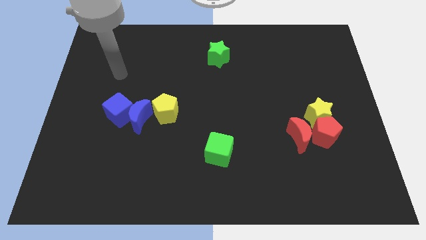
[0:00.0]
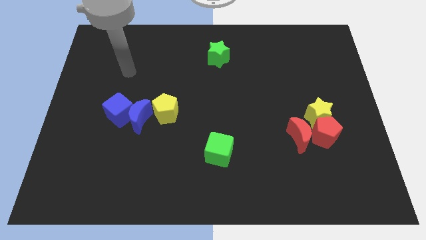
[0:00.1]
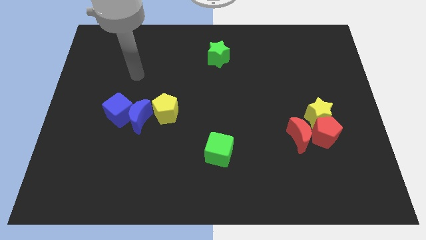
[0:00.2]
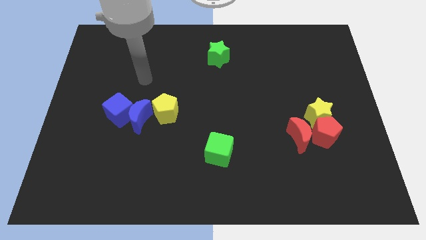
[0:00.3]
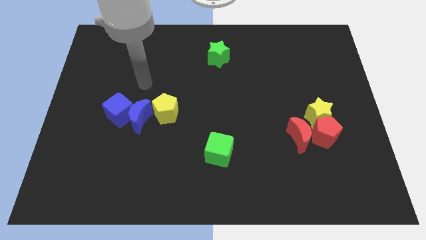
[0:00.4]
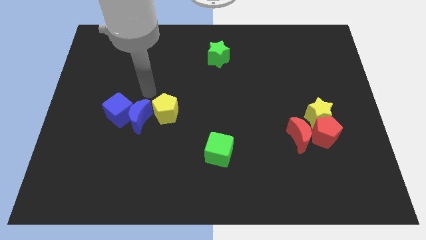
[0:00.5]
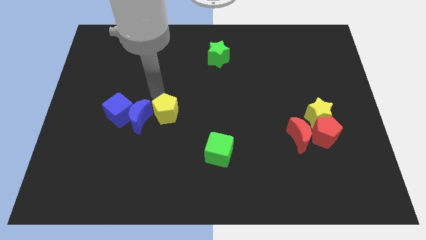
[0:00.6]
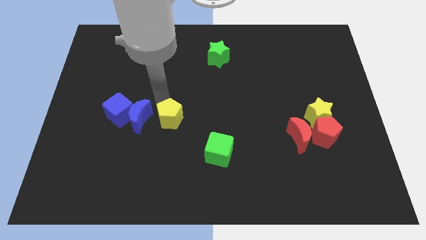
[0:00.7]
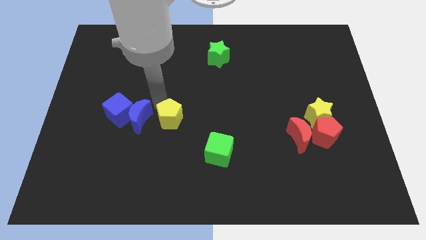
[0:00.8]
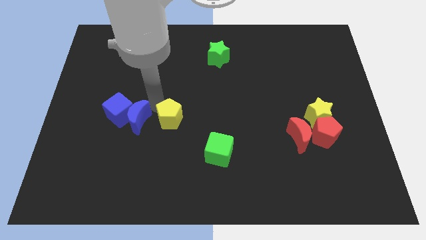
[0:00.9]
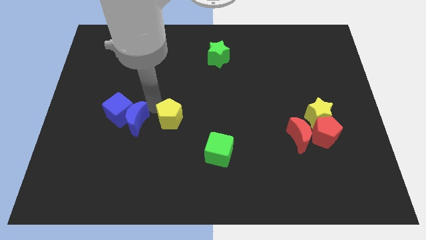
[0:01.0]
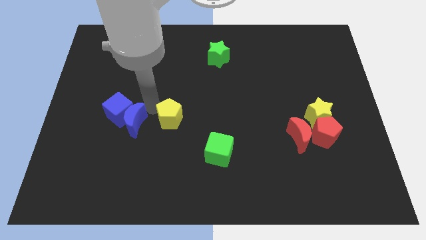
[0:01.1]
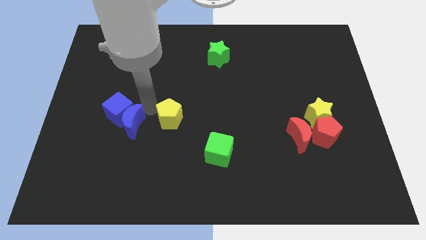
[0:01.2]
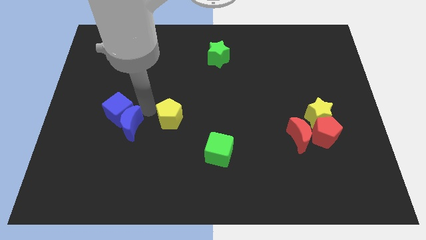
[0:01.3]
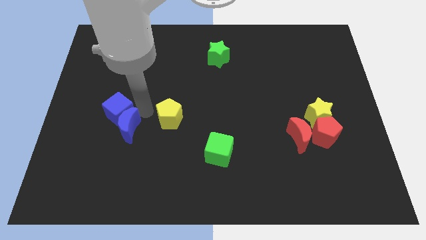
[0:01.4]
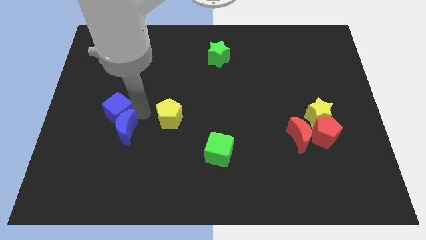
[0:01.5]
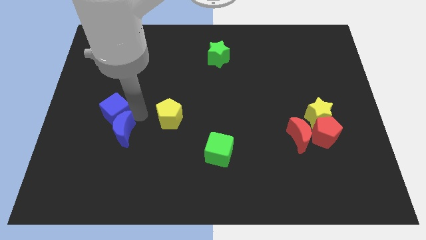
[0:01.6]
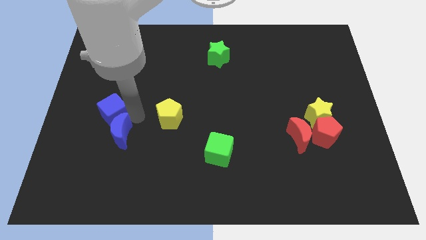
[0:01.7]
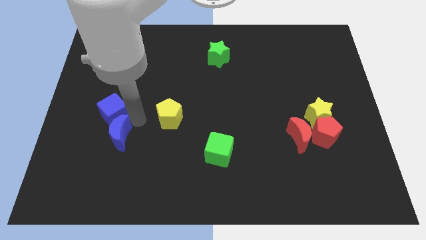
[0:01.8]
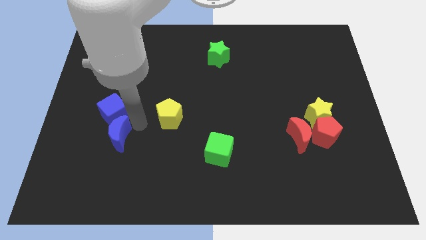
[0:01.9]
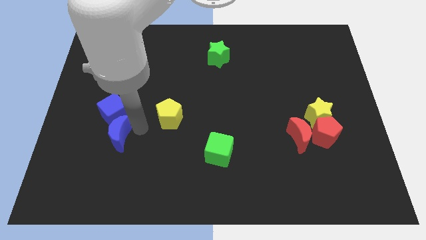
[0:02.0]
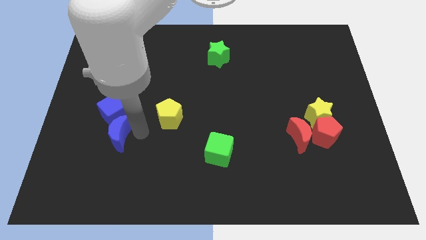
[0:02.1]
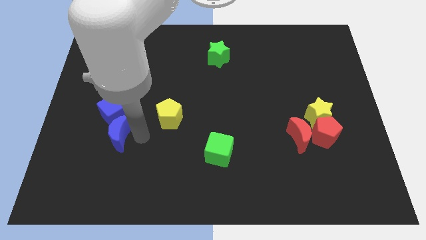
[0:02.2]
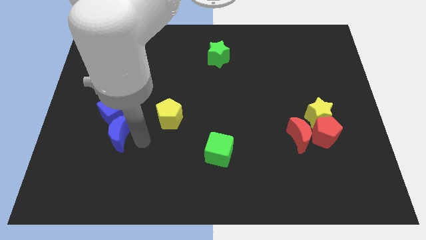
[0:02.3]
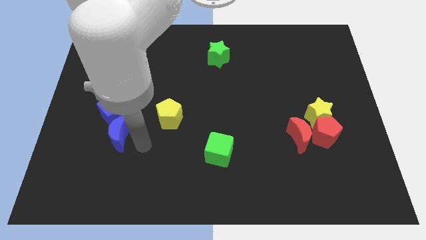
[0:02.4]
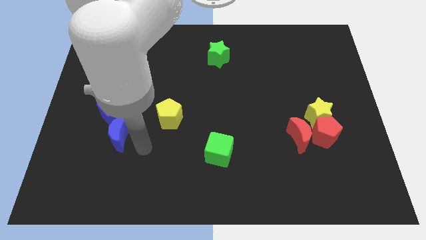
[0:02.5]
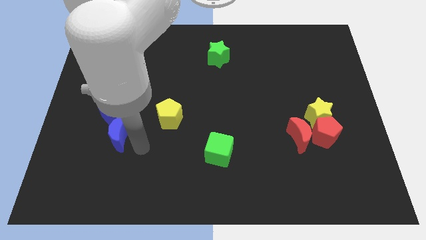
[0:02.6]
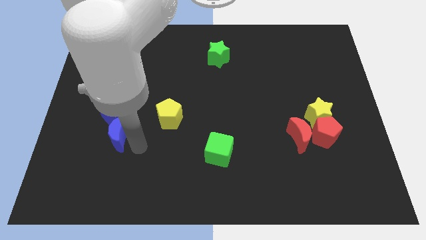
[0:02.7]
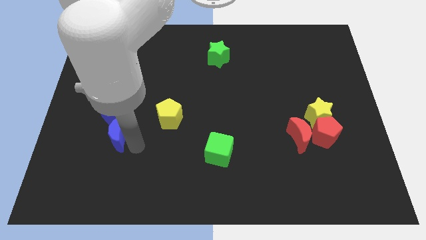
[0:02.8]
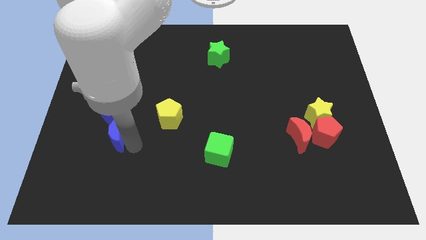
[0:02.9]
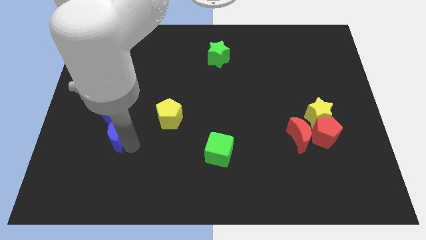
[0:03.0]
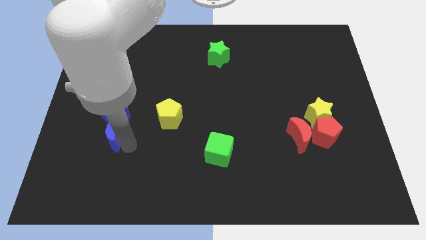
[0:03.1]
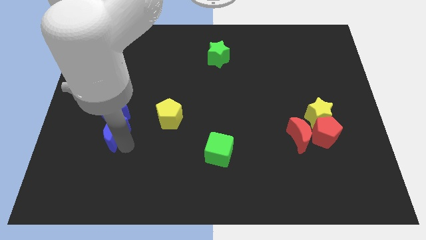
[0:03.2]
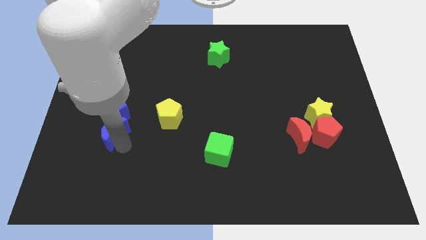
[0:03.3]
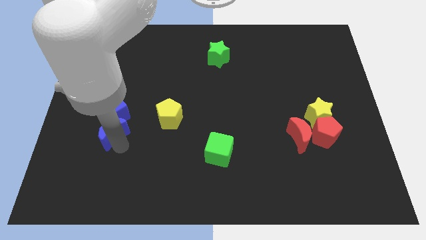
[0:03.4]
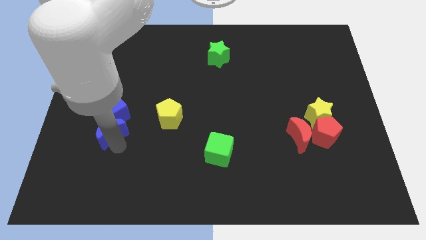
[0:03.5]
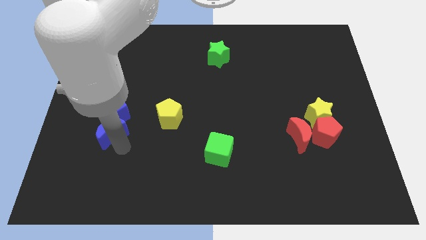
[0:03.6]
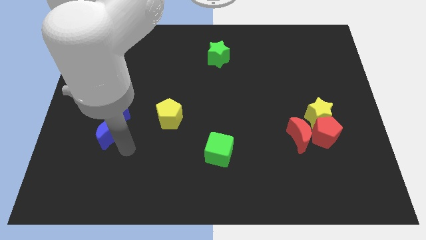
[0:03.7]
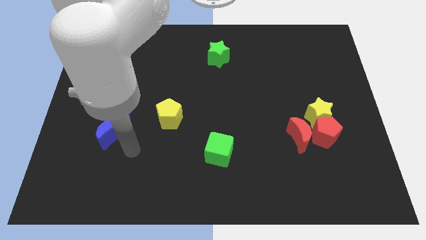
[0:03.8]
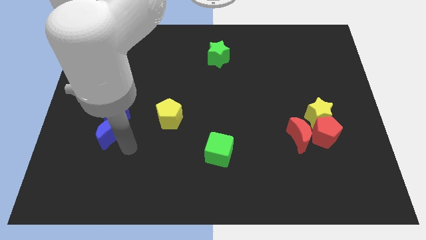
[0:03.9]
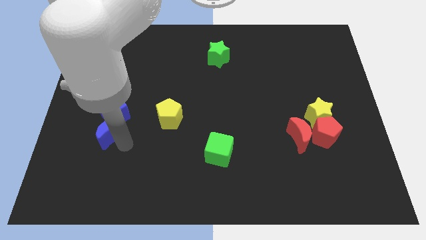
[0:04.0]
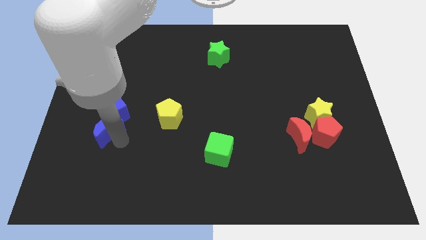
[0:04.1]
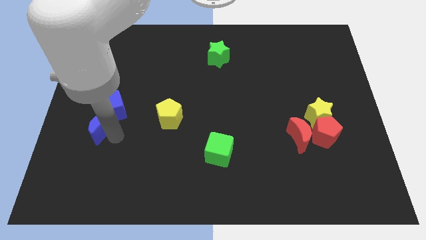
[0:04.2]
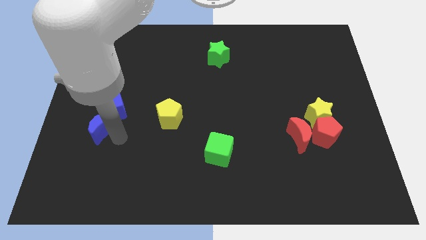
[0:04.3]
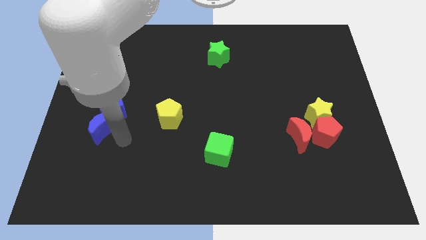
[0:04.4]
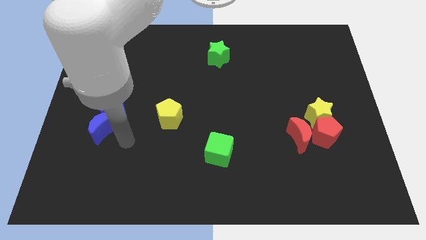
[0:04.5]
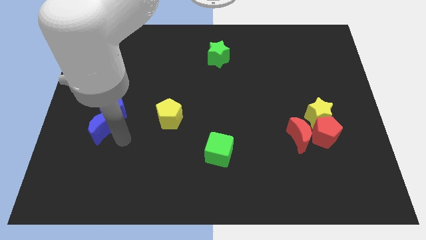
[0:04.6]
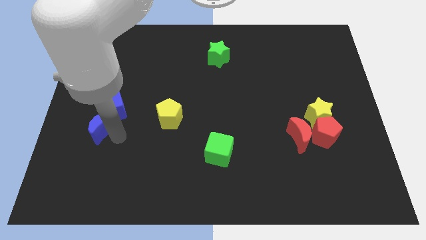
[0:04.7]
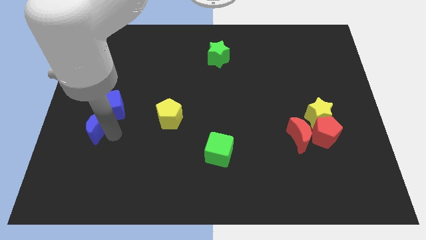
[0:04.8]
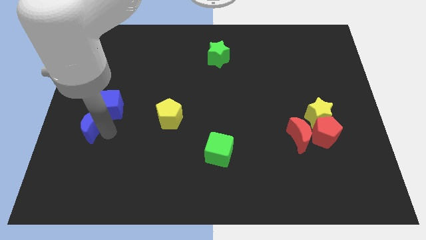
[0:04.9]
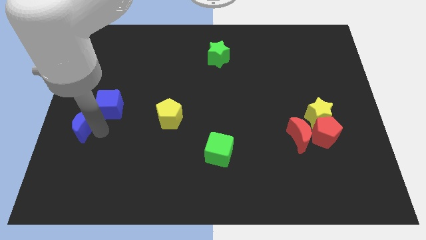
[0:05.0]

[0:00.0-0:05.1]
push the blue moon to the left side

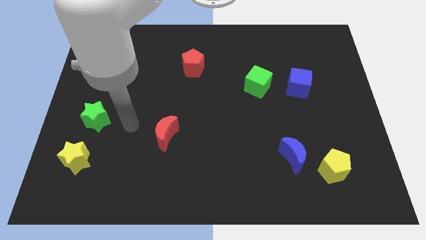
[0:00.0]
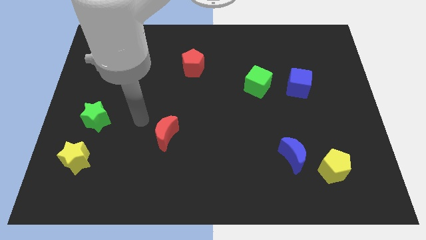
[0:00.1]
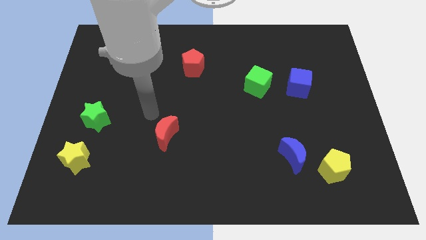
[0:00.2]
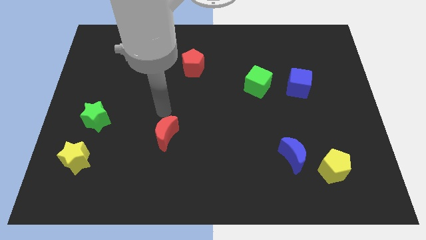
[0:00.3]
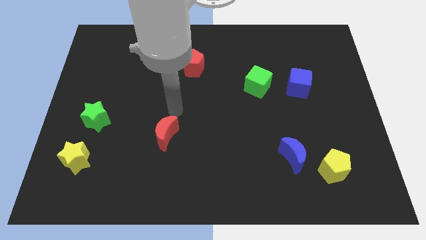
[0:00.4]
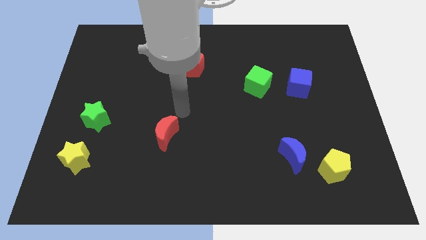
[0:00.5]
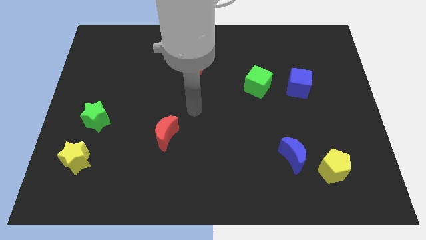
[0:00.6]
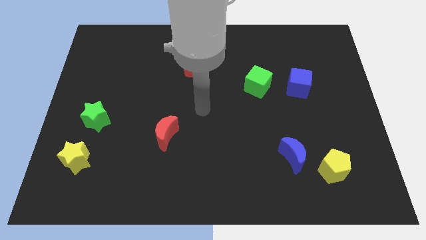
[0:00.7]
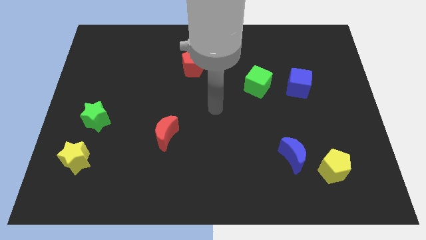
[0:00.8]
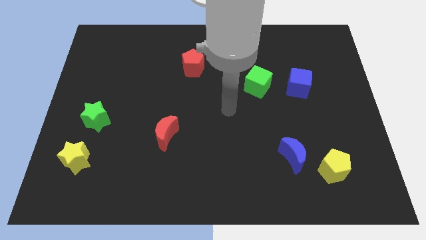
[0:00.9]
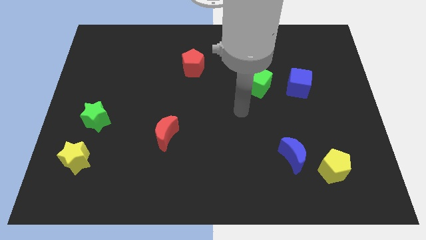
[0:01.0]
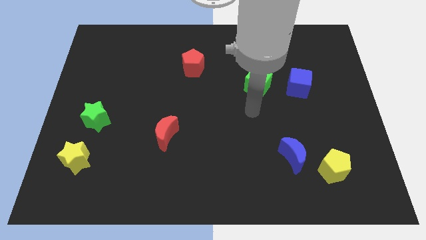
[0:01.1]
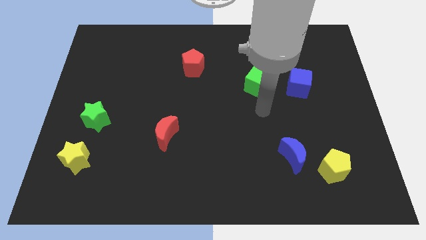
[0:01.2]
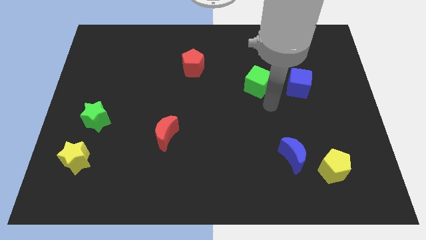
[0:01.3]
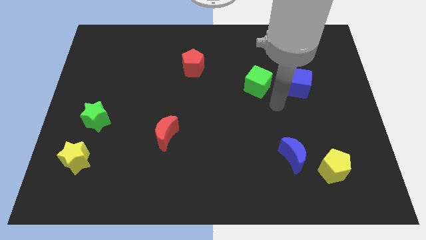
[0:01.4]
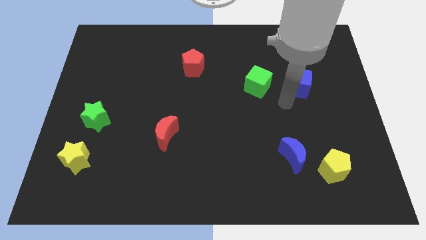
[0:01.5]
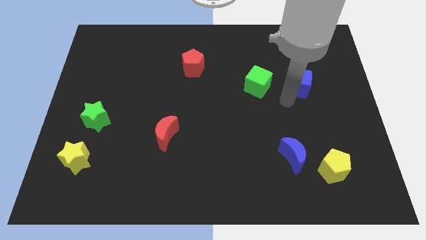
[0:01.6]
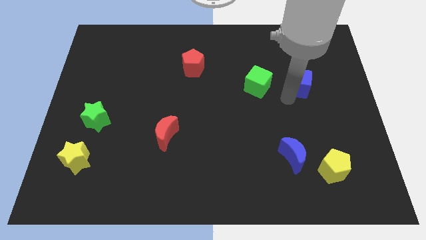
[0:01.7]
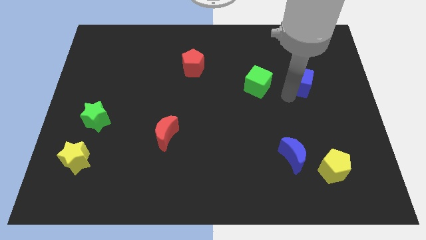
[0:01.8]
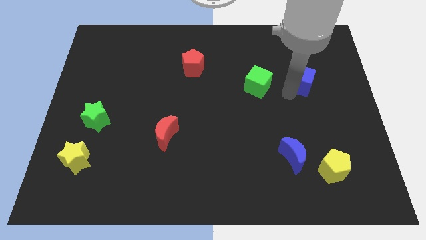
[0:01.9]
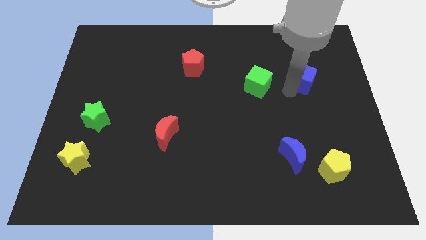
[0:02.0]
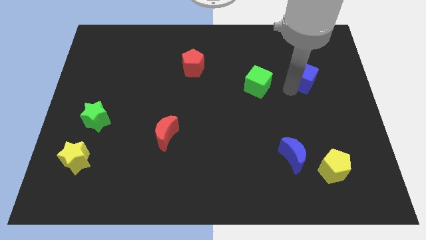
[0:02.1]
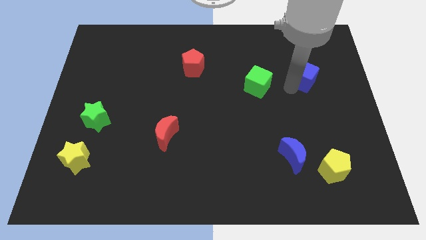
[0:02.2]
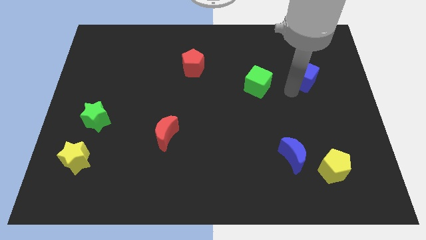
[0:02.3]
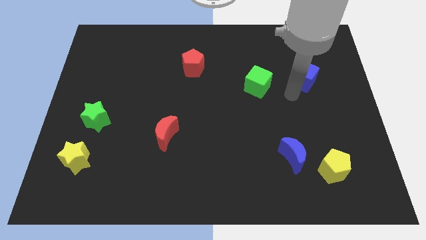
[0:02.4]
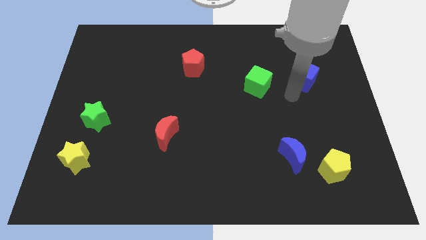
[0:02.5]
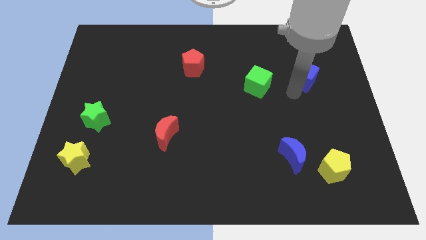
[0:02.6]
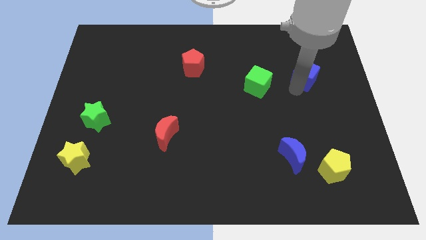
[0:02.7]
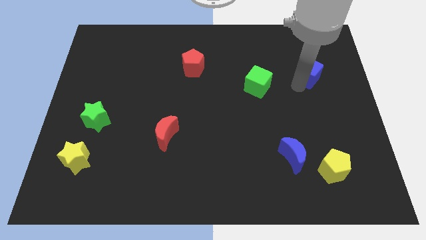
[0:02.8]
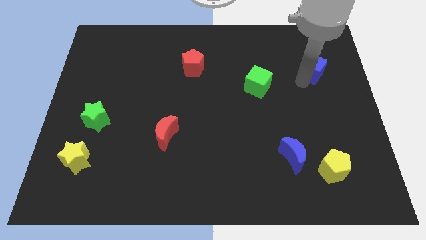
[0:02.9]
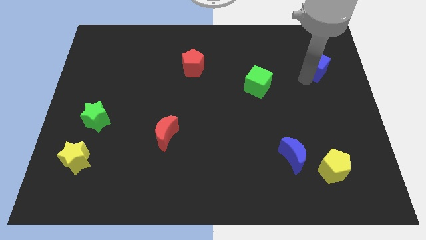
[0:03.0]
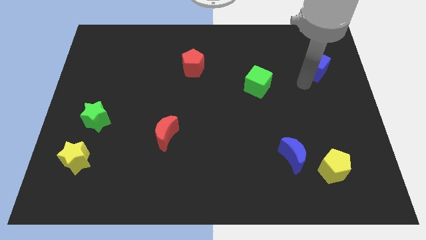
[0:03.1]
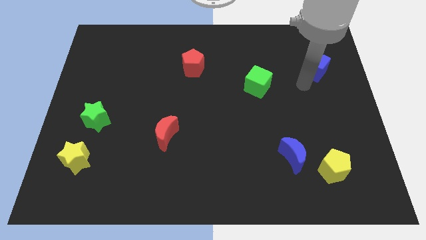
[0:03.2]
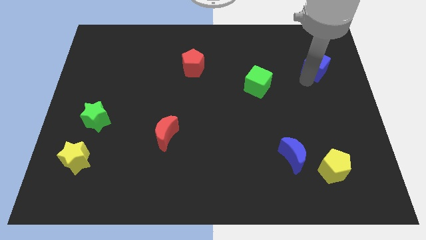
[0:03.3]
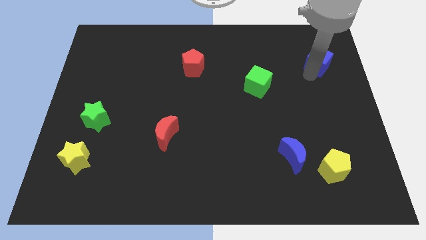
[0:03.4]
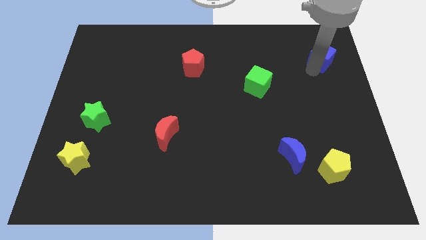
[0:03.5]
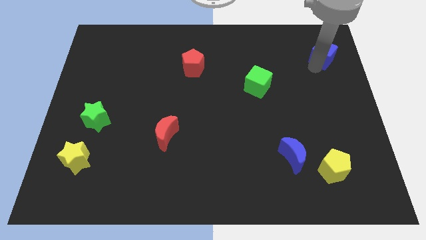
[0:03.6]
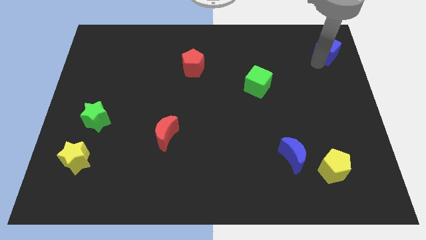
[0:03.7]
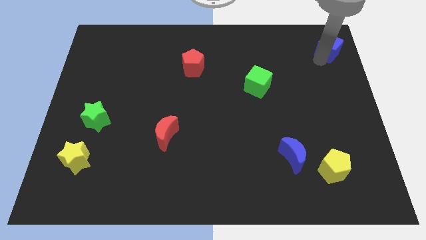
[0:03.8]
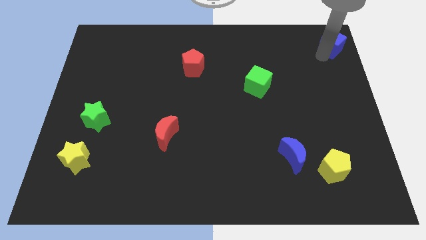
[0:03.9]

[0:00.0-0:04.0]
put the blue cube to the top right corner
